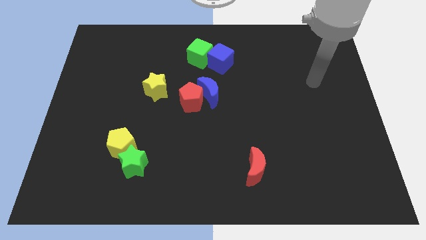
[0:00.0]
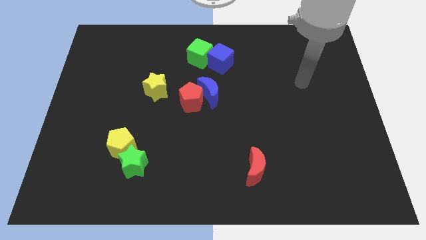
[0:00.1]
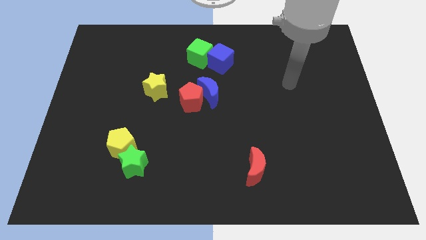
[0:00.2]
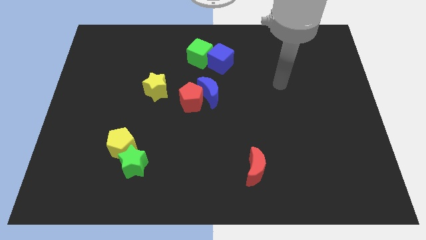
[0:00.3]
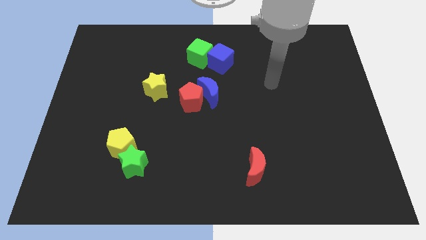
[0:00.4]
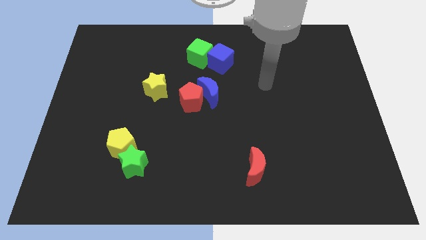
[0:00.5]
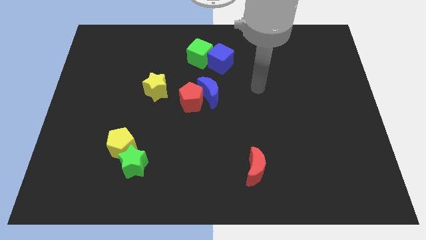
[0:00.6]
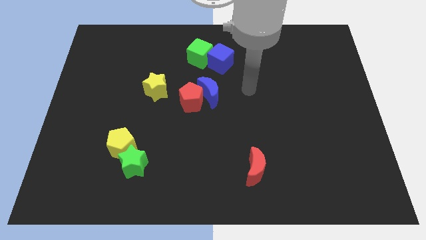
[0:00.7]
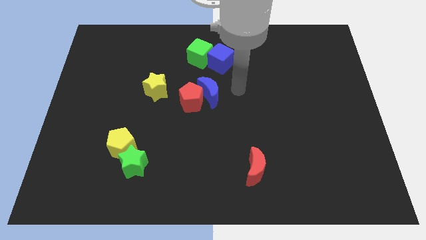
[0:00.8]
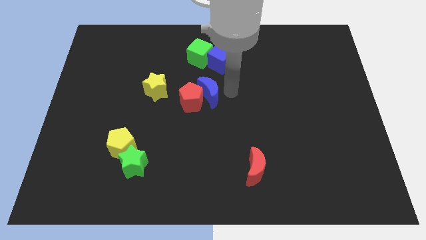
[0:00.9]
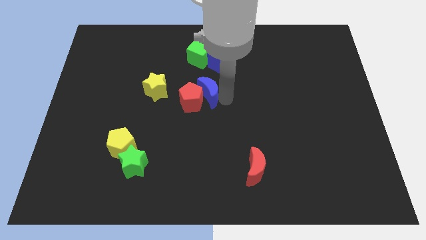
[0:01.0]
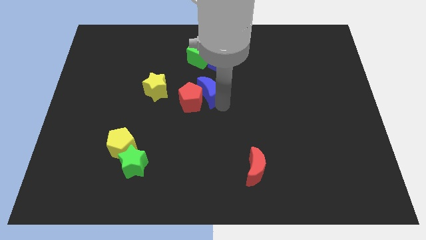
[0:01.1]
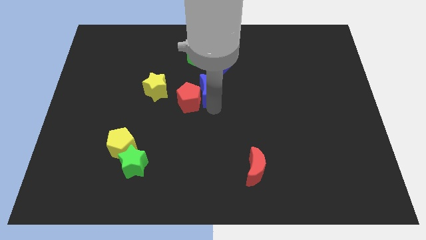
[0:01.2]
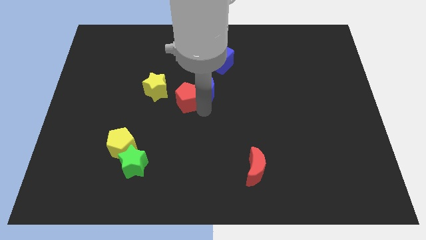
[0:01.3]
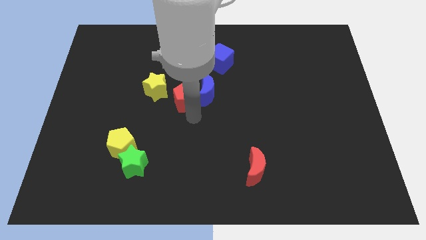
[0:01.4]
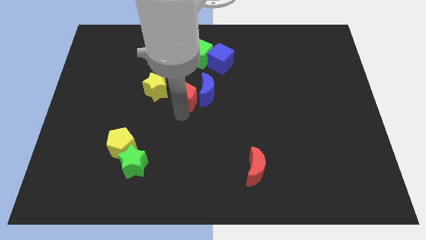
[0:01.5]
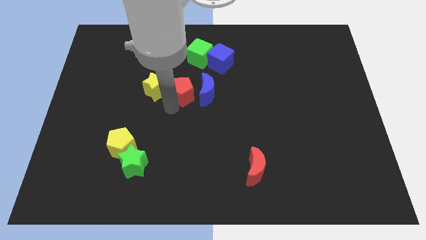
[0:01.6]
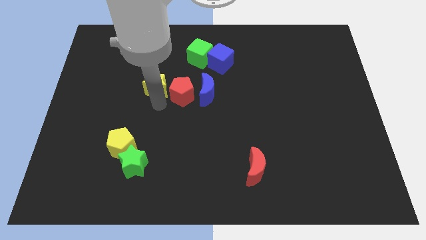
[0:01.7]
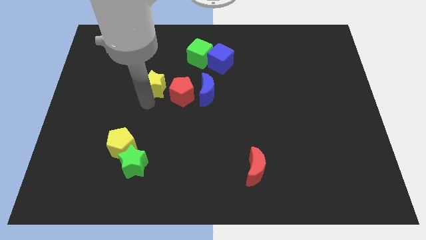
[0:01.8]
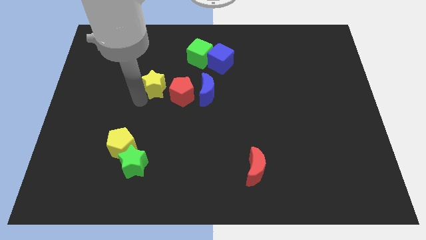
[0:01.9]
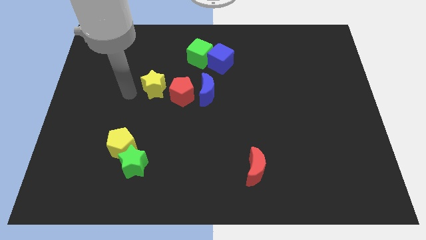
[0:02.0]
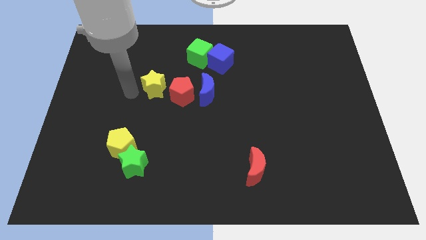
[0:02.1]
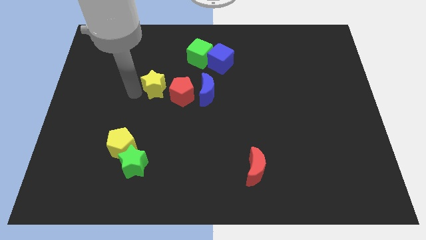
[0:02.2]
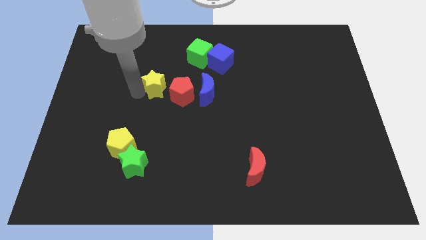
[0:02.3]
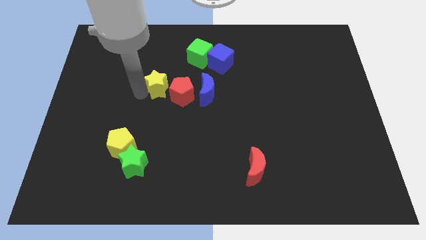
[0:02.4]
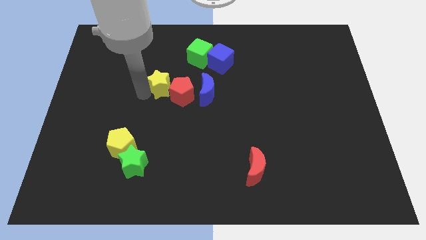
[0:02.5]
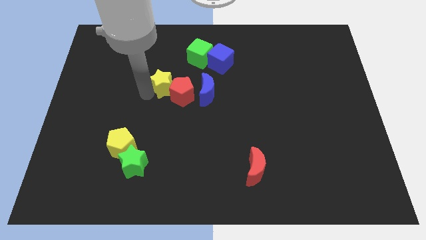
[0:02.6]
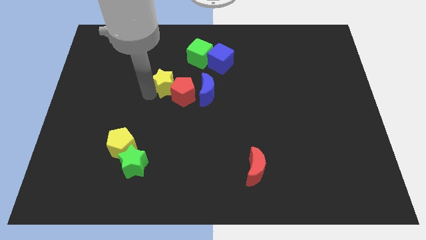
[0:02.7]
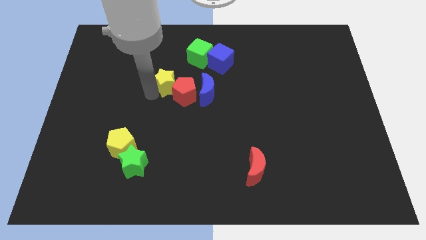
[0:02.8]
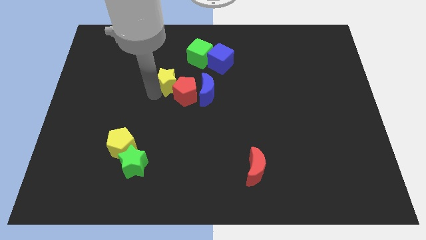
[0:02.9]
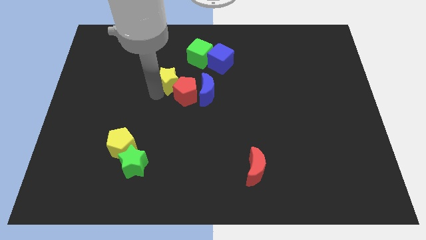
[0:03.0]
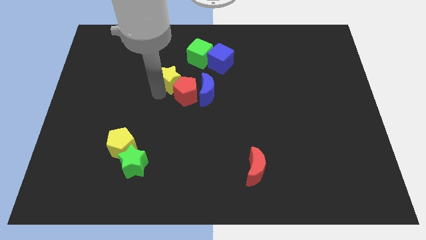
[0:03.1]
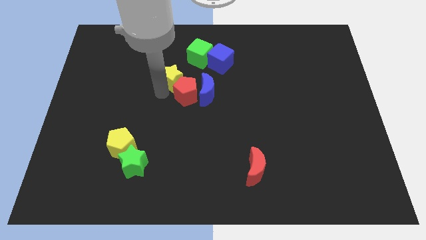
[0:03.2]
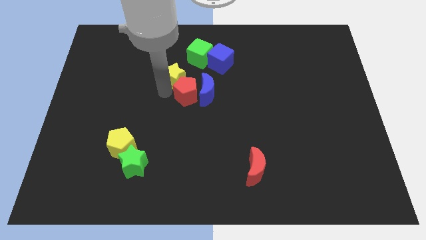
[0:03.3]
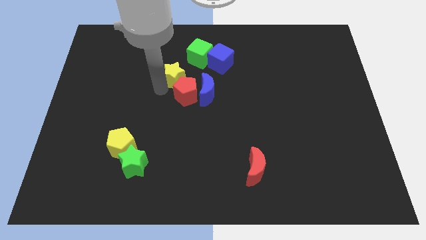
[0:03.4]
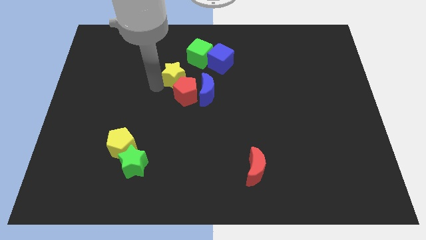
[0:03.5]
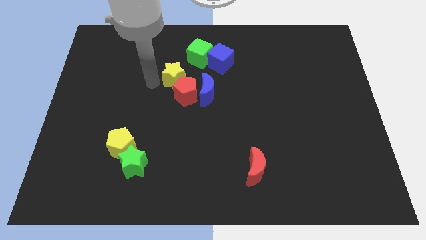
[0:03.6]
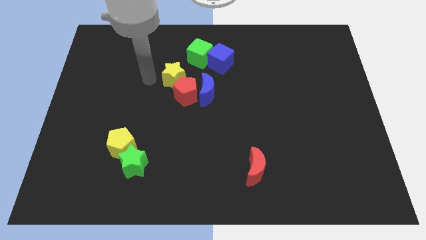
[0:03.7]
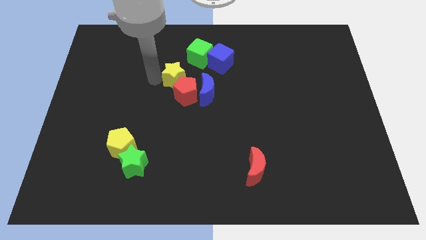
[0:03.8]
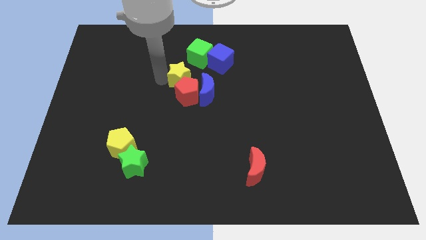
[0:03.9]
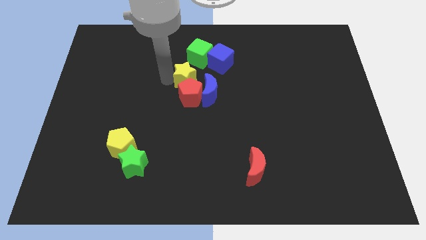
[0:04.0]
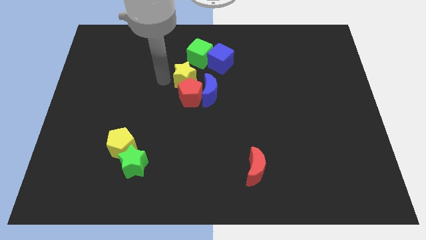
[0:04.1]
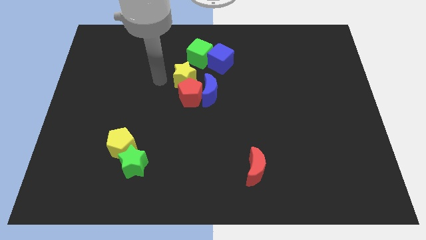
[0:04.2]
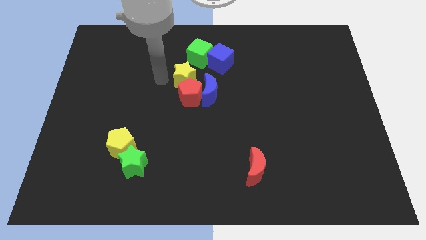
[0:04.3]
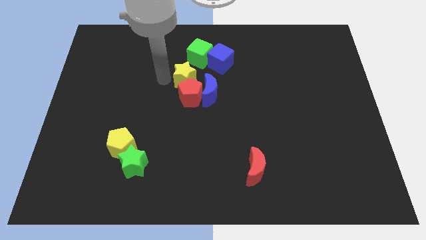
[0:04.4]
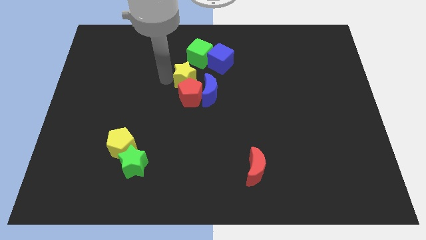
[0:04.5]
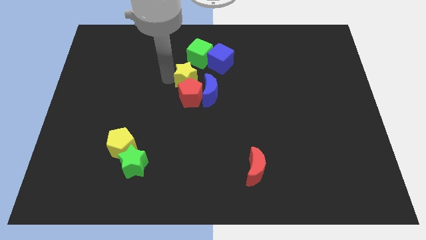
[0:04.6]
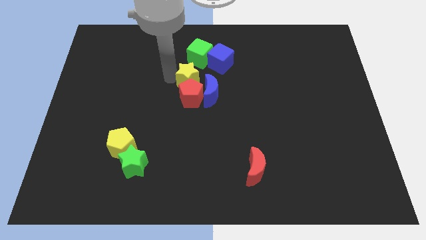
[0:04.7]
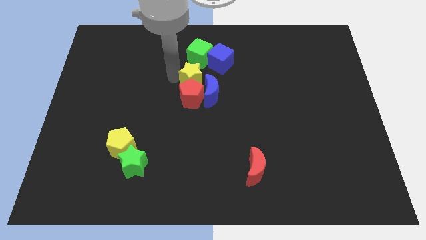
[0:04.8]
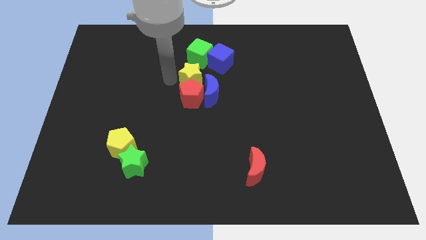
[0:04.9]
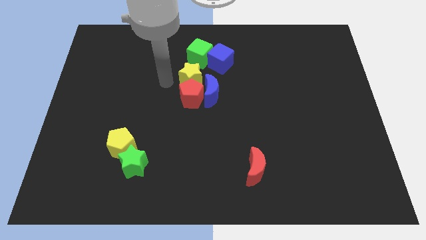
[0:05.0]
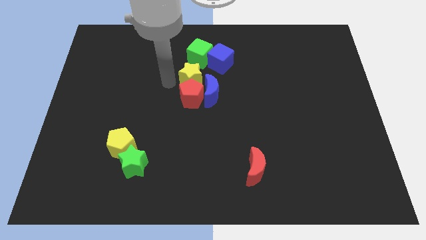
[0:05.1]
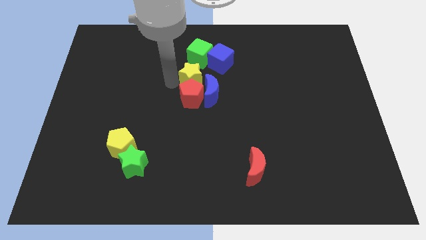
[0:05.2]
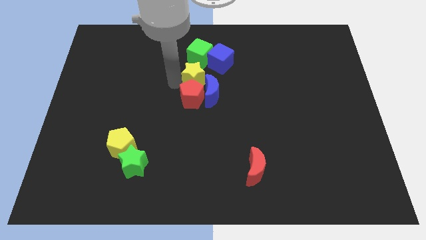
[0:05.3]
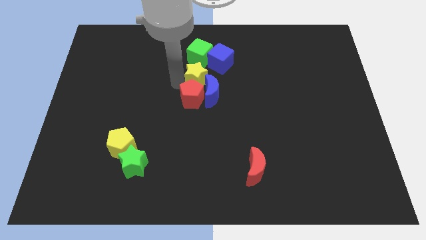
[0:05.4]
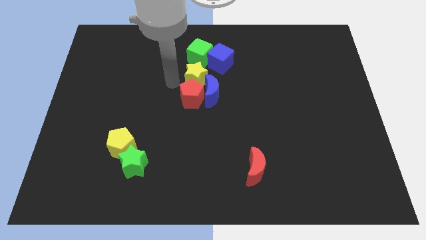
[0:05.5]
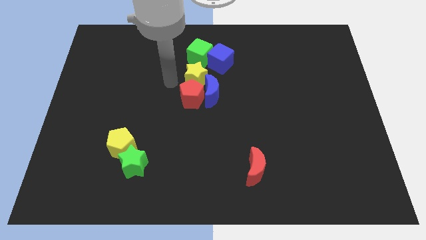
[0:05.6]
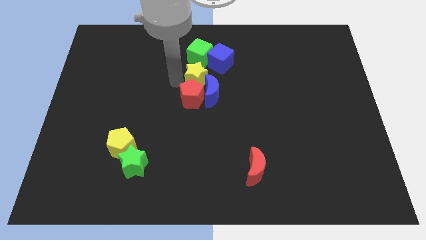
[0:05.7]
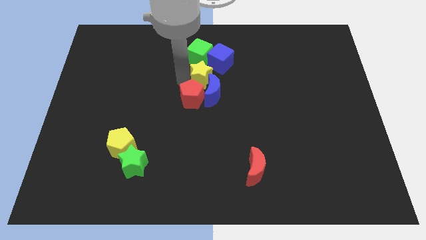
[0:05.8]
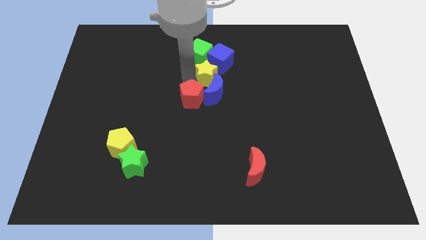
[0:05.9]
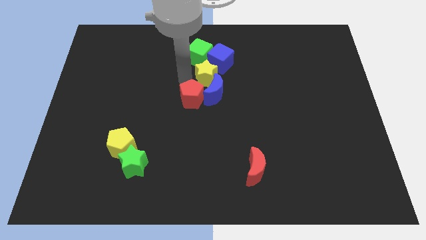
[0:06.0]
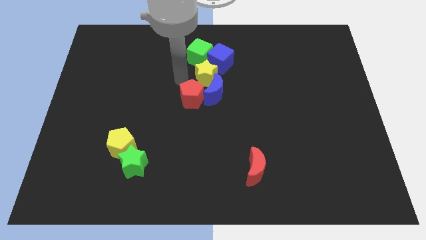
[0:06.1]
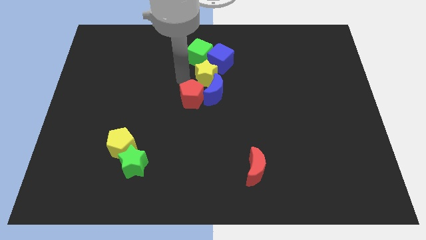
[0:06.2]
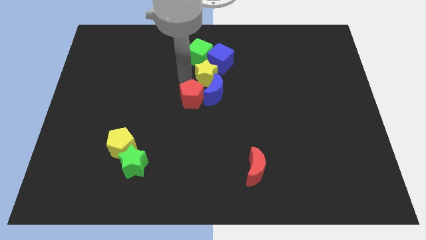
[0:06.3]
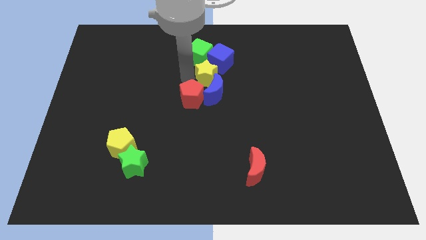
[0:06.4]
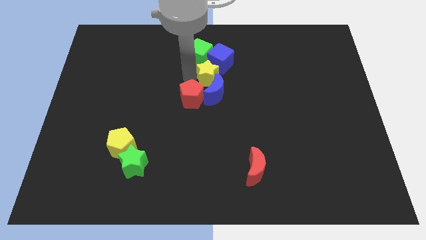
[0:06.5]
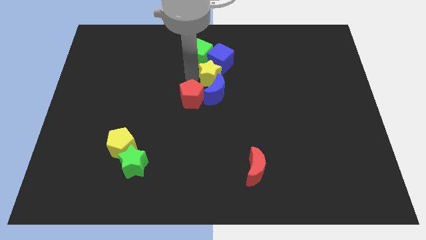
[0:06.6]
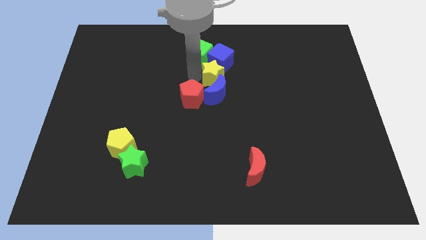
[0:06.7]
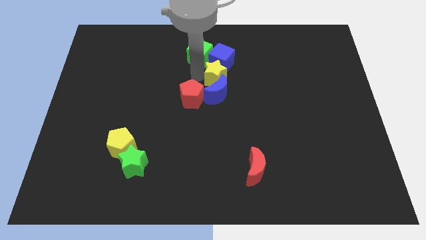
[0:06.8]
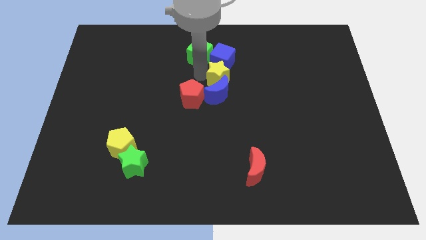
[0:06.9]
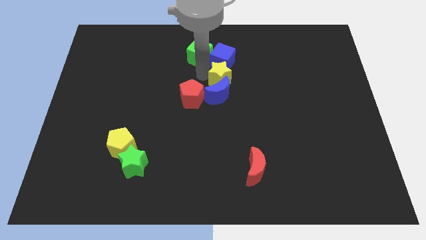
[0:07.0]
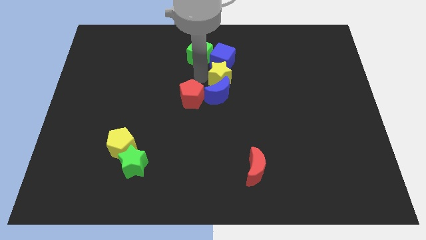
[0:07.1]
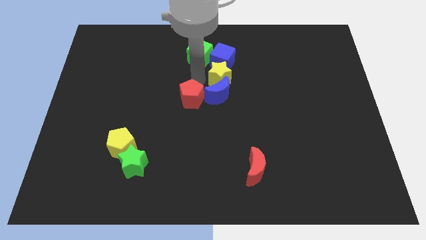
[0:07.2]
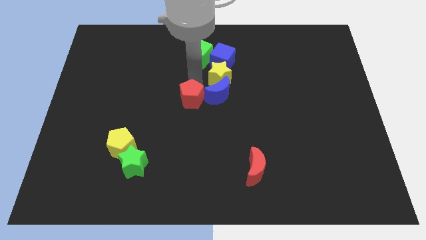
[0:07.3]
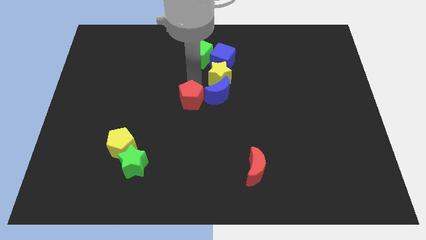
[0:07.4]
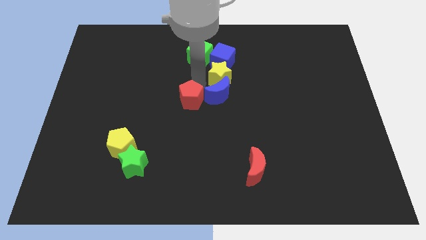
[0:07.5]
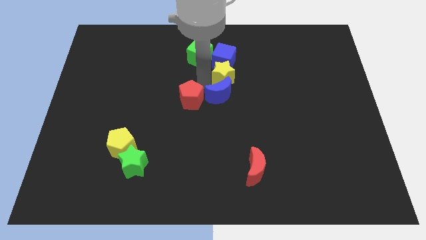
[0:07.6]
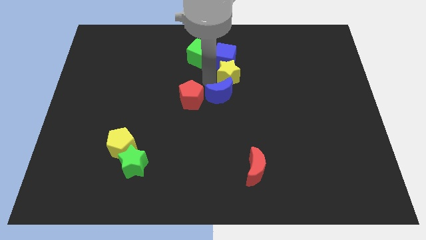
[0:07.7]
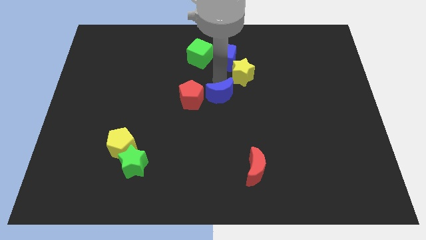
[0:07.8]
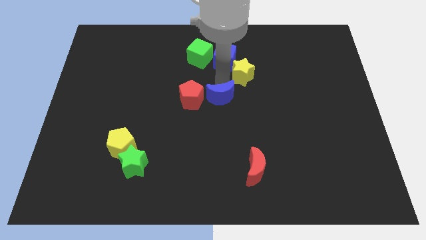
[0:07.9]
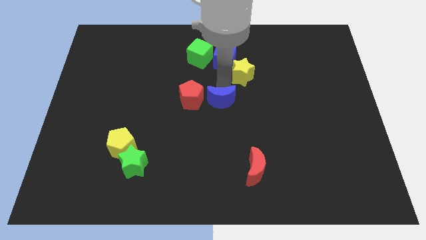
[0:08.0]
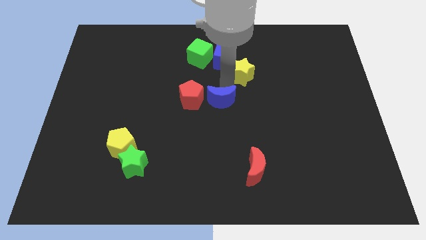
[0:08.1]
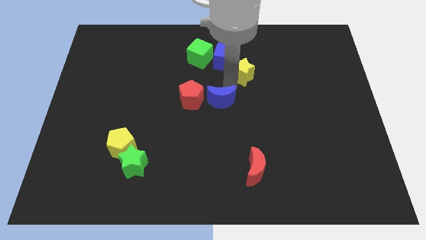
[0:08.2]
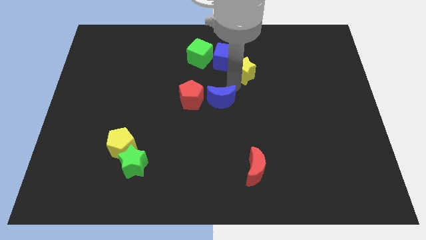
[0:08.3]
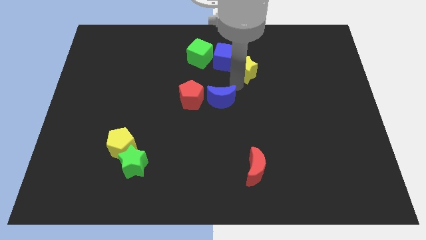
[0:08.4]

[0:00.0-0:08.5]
put the yellow star to the right side of the blue cube

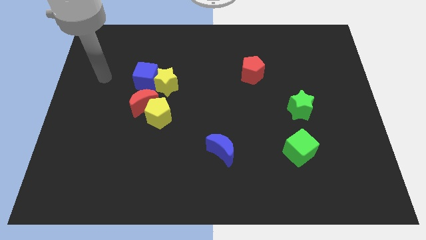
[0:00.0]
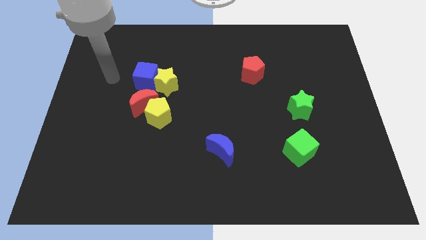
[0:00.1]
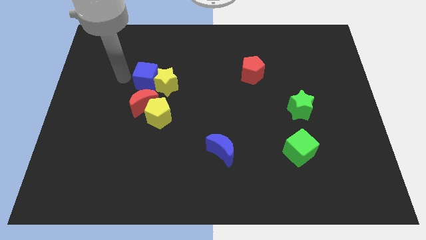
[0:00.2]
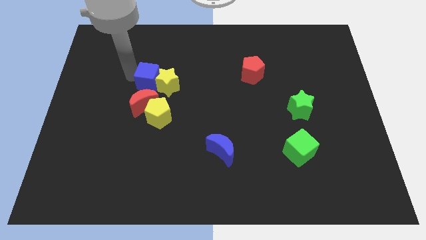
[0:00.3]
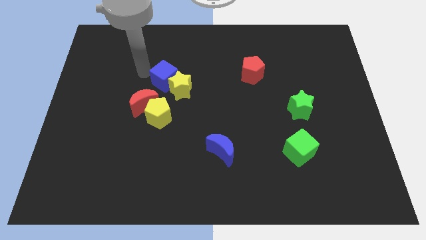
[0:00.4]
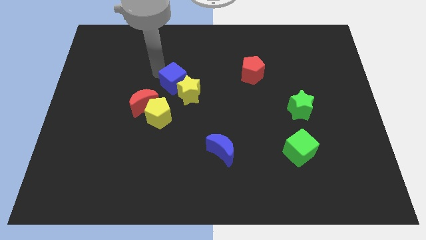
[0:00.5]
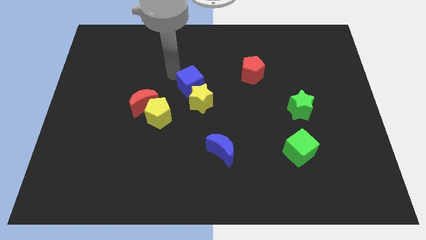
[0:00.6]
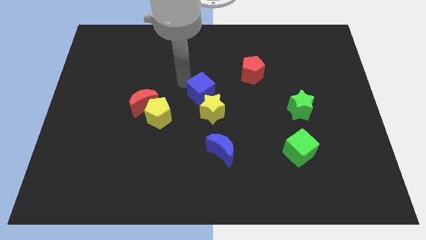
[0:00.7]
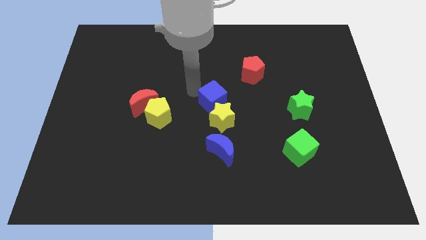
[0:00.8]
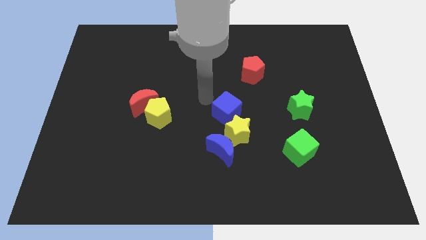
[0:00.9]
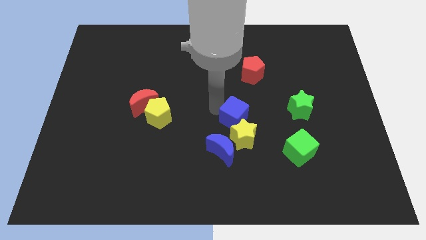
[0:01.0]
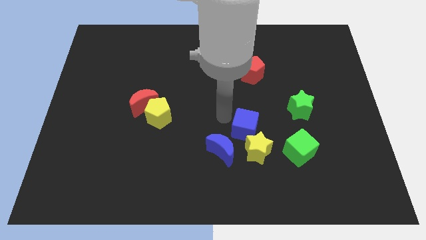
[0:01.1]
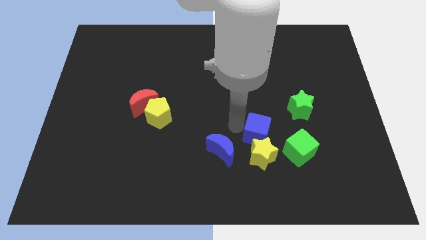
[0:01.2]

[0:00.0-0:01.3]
put the yellow star to the bottom left side of the green cube
